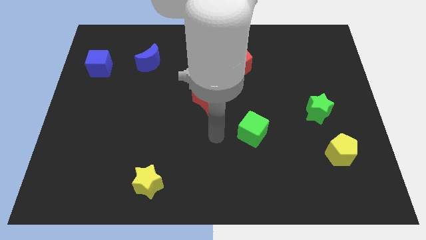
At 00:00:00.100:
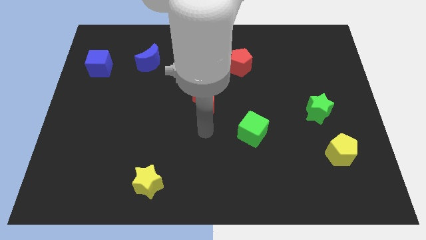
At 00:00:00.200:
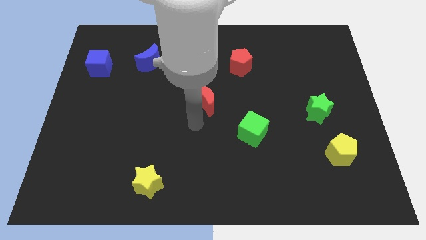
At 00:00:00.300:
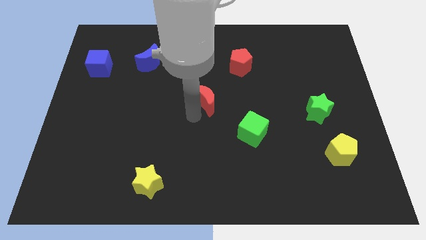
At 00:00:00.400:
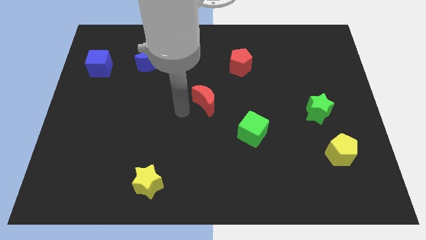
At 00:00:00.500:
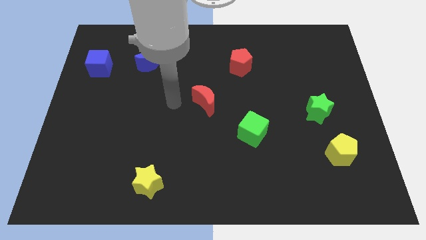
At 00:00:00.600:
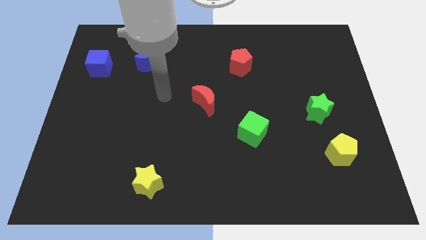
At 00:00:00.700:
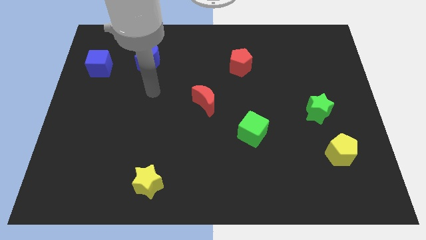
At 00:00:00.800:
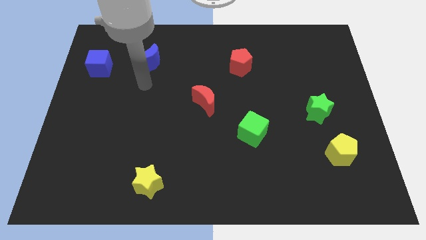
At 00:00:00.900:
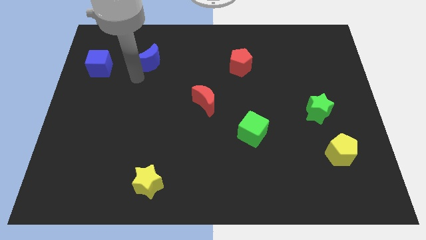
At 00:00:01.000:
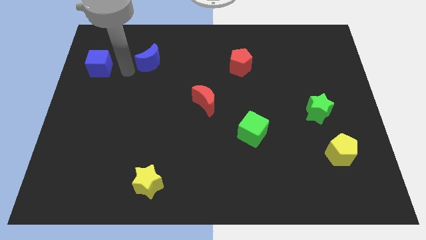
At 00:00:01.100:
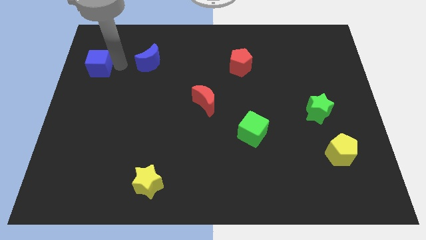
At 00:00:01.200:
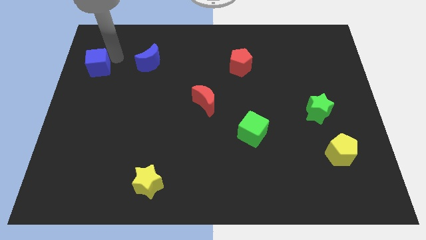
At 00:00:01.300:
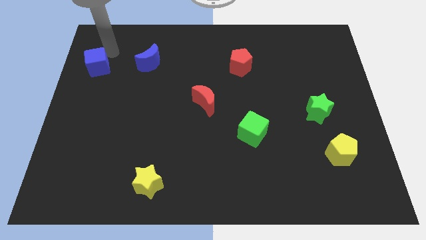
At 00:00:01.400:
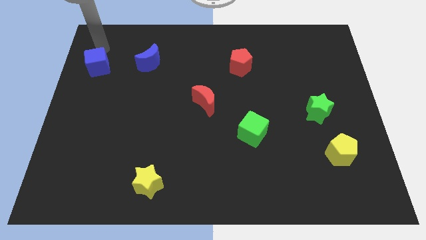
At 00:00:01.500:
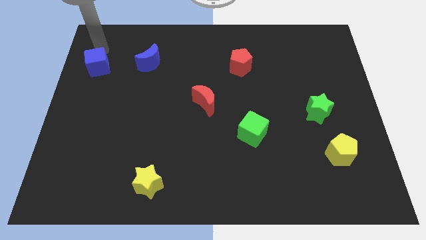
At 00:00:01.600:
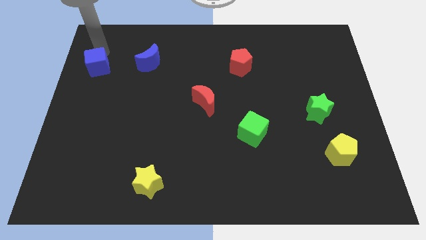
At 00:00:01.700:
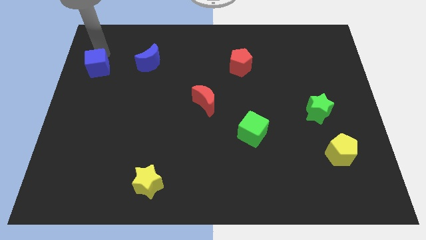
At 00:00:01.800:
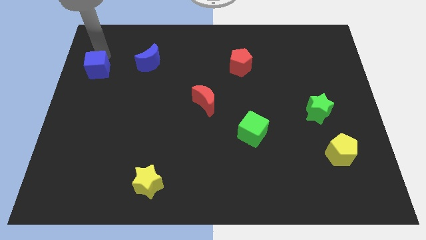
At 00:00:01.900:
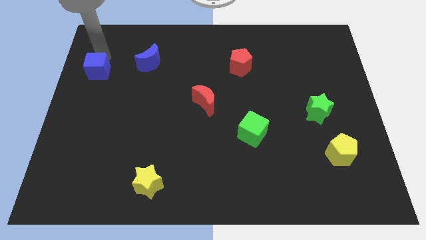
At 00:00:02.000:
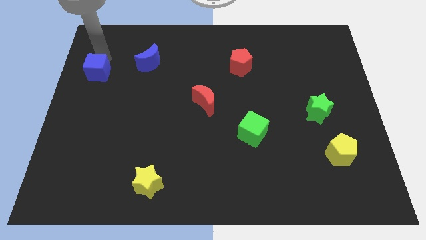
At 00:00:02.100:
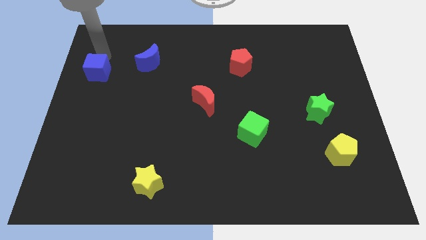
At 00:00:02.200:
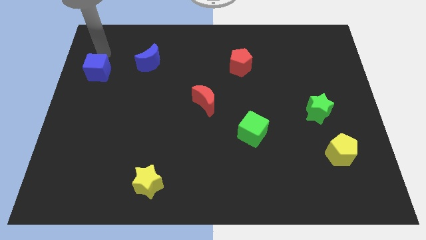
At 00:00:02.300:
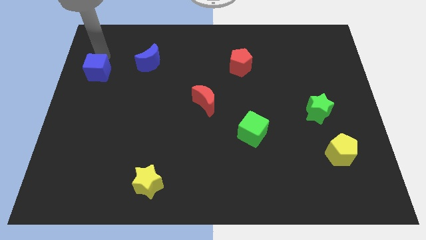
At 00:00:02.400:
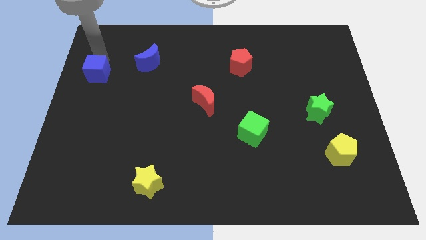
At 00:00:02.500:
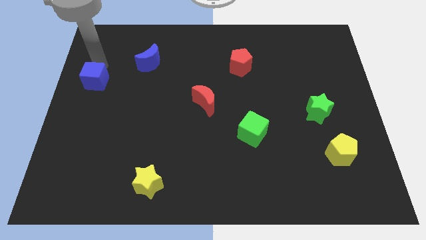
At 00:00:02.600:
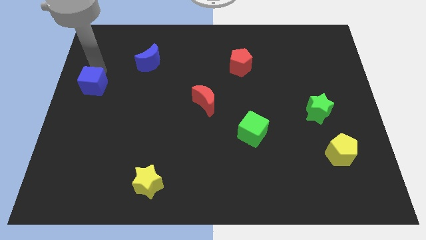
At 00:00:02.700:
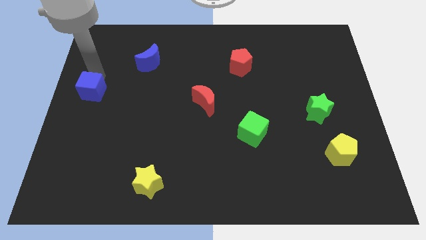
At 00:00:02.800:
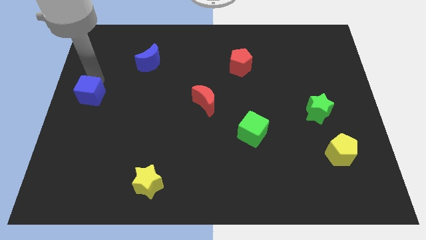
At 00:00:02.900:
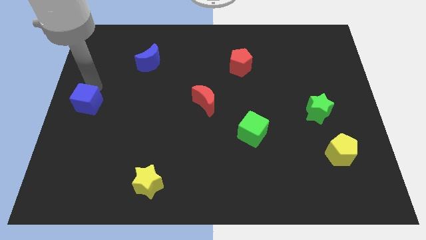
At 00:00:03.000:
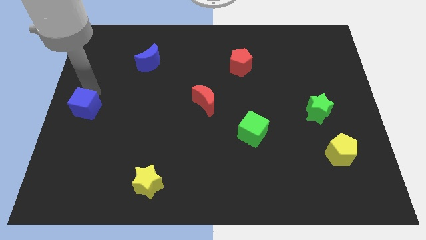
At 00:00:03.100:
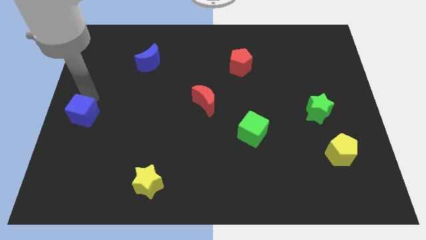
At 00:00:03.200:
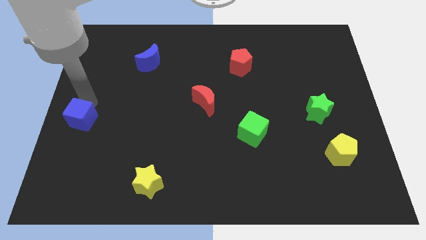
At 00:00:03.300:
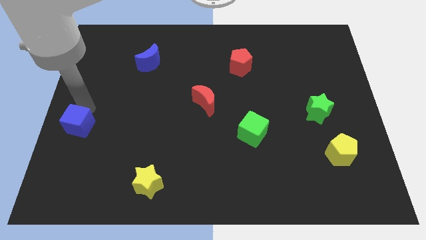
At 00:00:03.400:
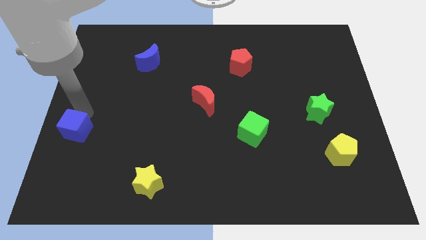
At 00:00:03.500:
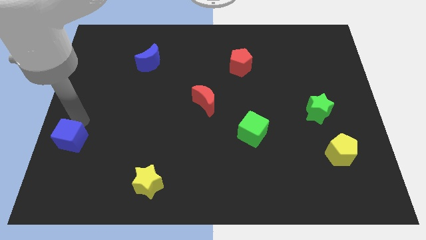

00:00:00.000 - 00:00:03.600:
push the blue cube downwards

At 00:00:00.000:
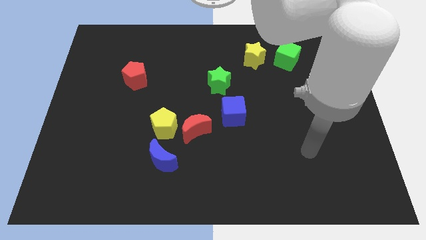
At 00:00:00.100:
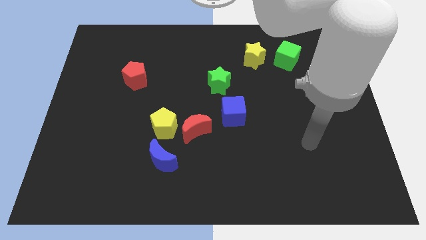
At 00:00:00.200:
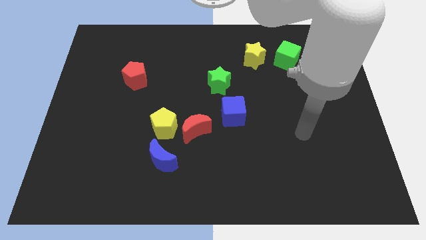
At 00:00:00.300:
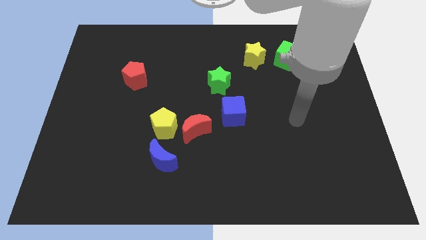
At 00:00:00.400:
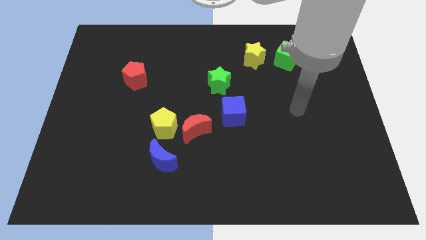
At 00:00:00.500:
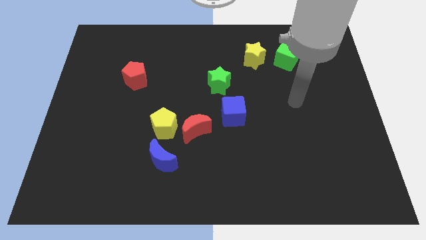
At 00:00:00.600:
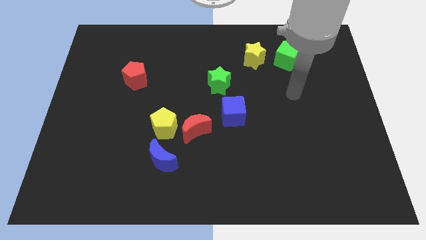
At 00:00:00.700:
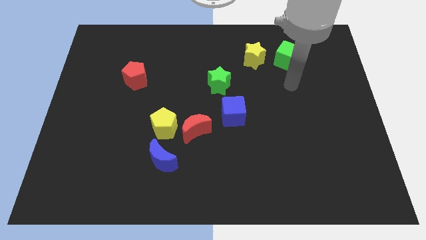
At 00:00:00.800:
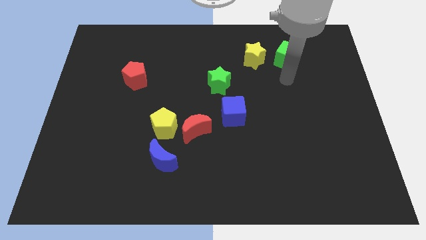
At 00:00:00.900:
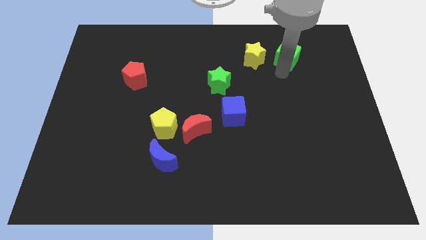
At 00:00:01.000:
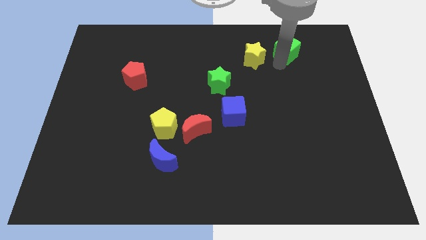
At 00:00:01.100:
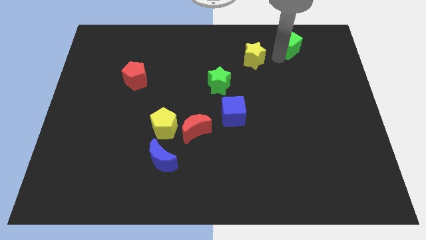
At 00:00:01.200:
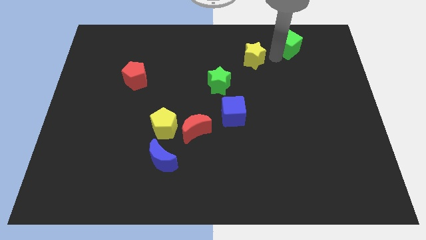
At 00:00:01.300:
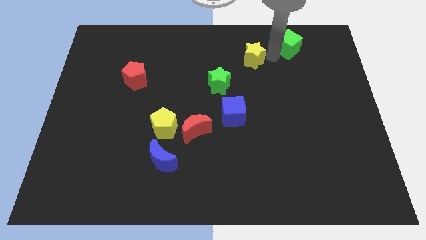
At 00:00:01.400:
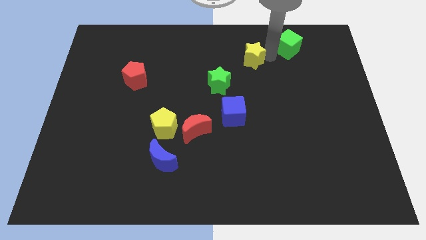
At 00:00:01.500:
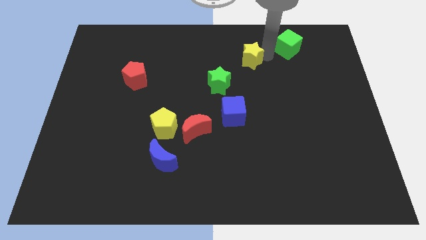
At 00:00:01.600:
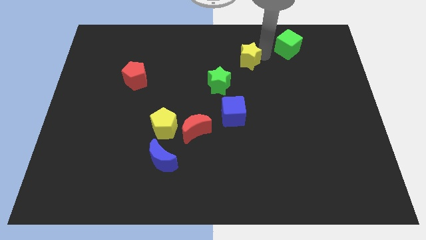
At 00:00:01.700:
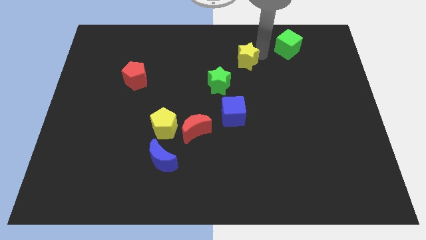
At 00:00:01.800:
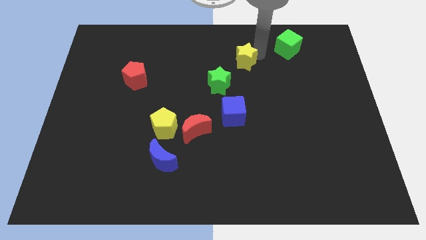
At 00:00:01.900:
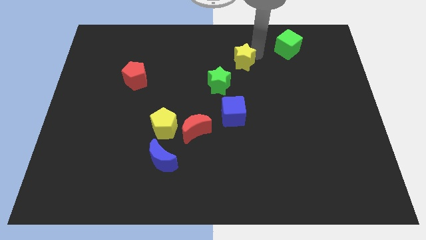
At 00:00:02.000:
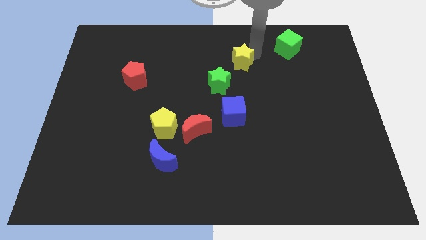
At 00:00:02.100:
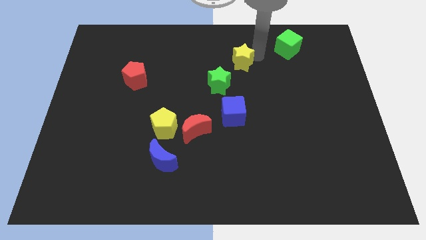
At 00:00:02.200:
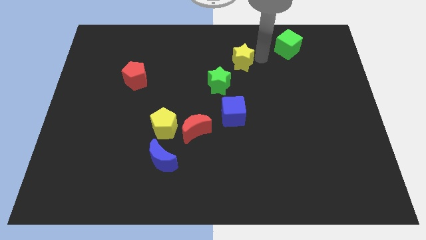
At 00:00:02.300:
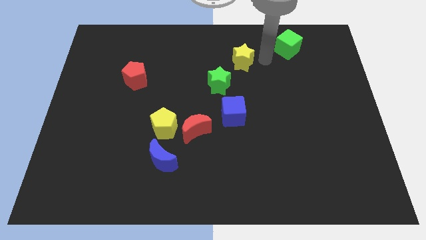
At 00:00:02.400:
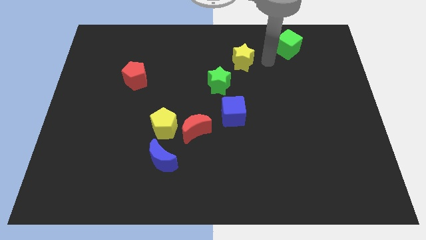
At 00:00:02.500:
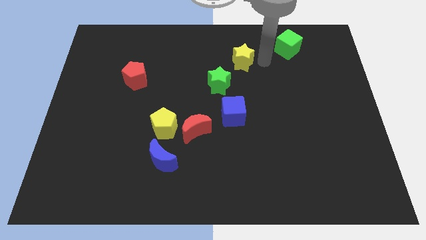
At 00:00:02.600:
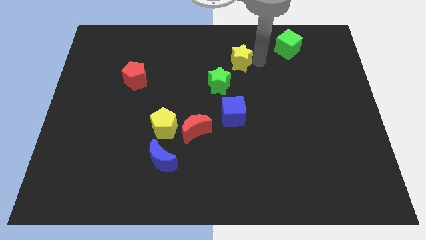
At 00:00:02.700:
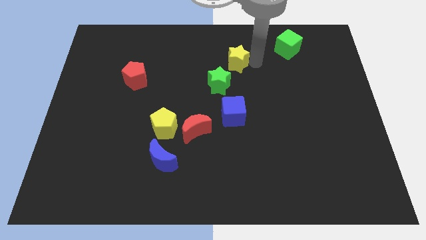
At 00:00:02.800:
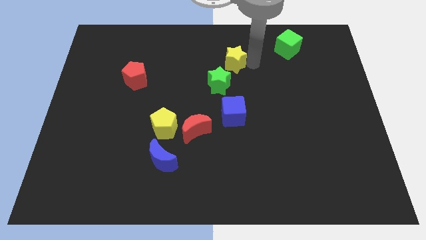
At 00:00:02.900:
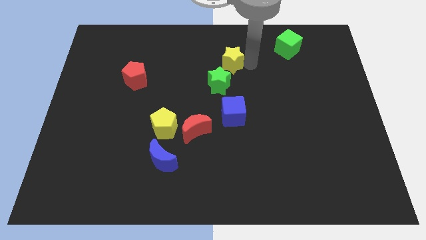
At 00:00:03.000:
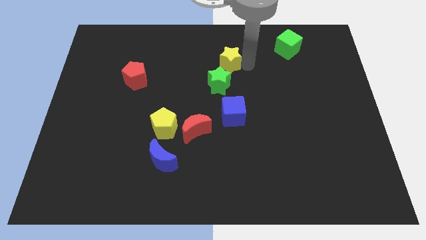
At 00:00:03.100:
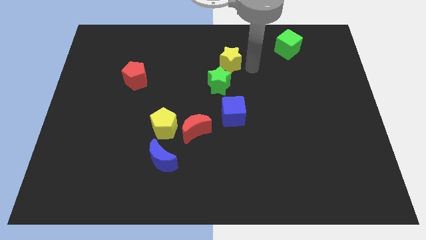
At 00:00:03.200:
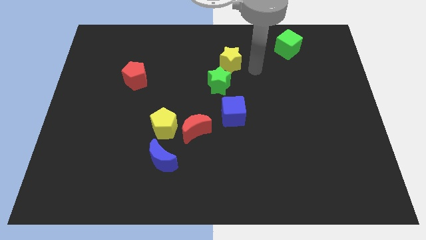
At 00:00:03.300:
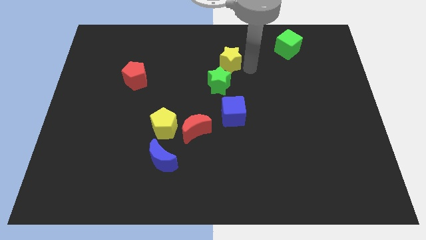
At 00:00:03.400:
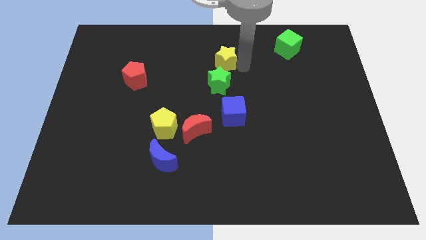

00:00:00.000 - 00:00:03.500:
slightly move the yellow star to the left

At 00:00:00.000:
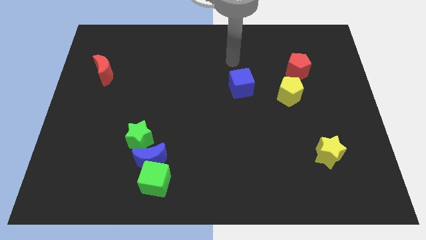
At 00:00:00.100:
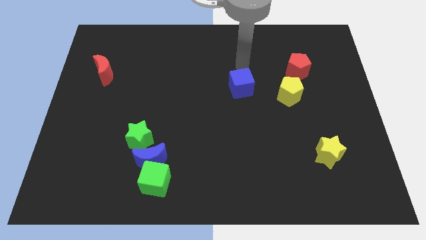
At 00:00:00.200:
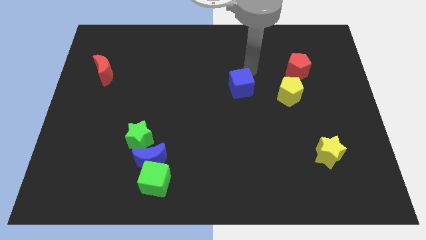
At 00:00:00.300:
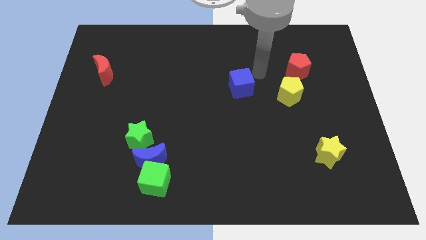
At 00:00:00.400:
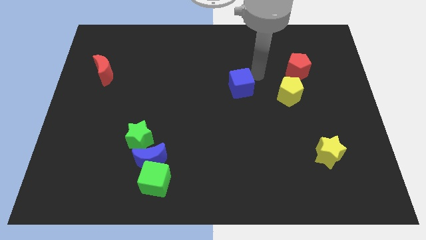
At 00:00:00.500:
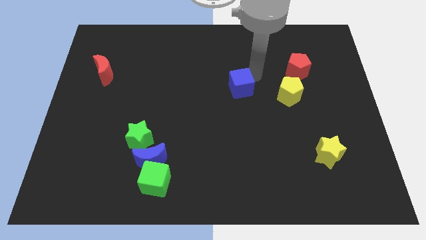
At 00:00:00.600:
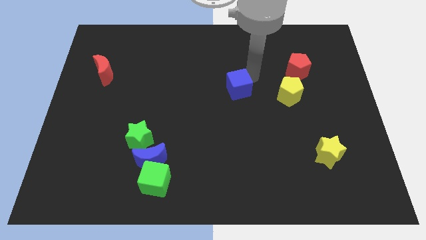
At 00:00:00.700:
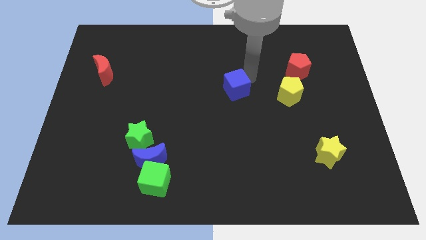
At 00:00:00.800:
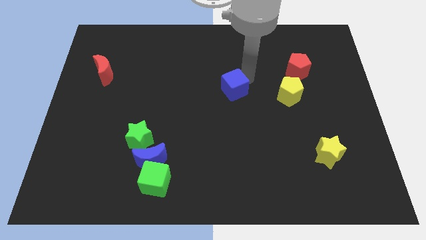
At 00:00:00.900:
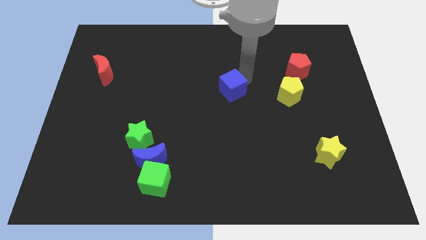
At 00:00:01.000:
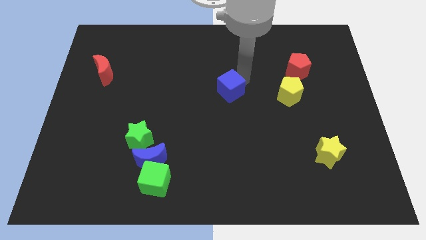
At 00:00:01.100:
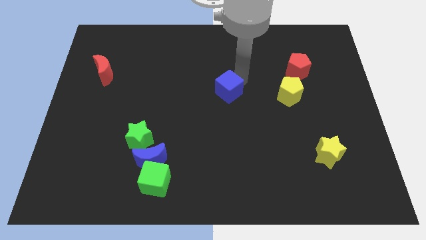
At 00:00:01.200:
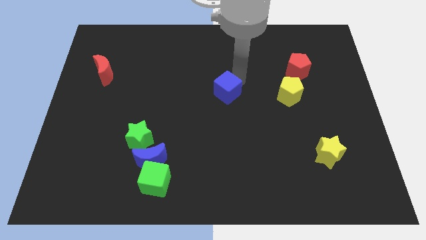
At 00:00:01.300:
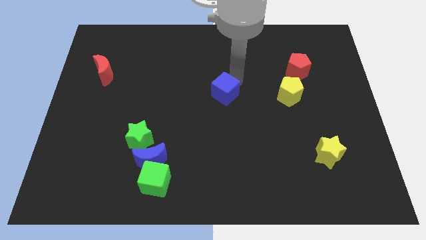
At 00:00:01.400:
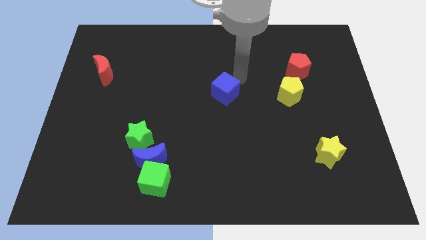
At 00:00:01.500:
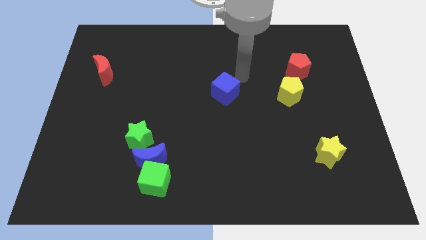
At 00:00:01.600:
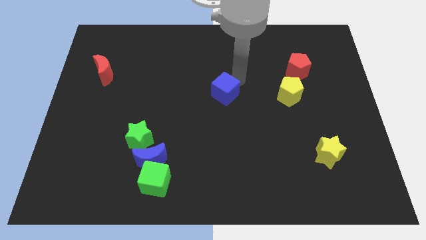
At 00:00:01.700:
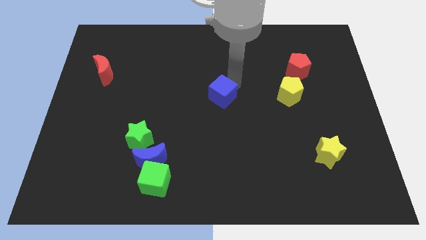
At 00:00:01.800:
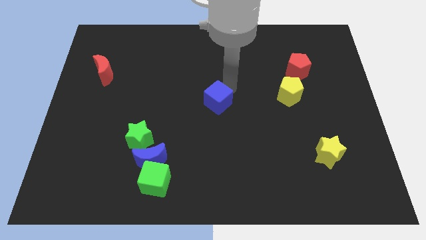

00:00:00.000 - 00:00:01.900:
push the blue cube a little diagonally down and left
